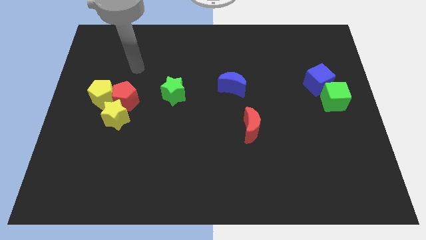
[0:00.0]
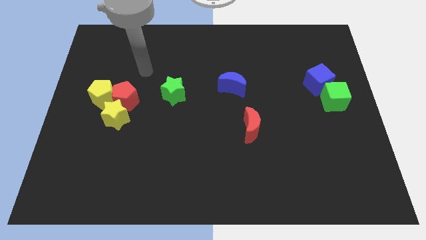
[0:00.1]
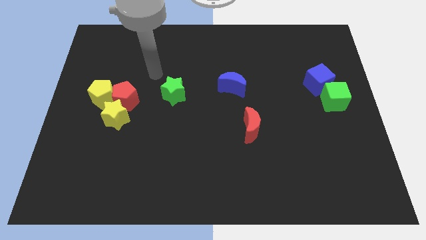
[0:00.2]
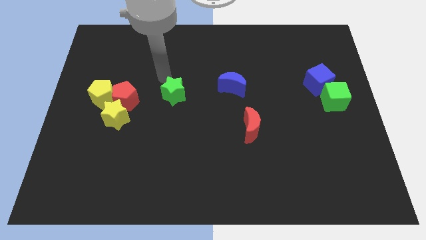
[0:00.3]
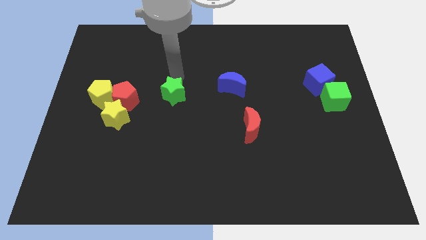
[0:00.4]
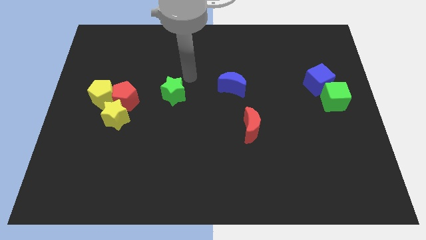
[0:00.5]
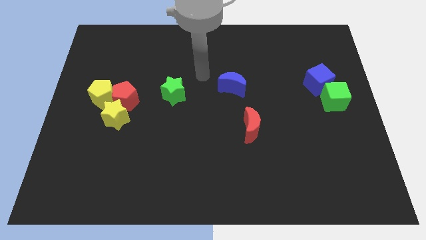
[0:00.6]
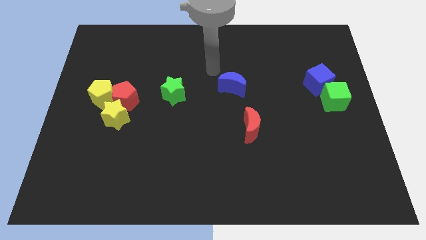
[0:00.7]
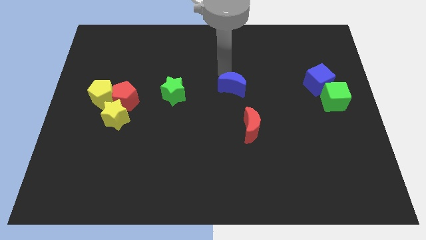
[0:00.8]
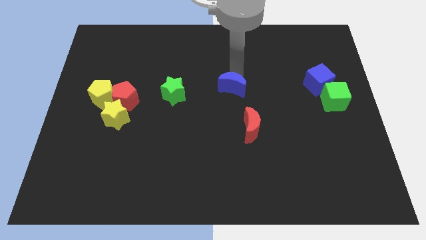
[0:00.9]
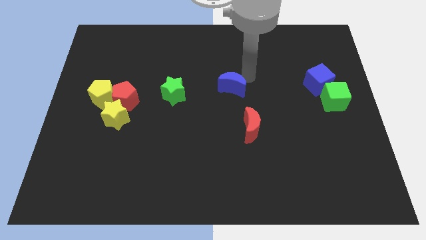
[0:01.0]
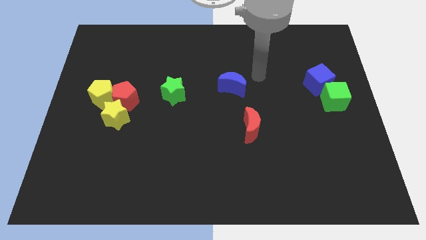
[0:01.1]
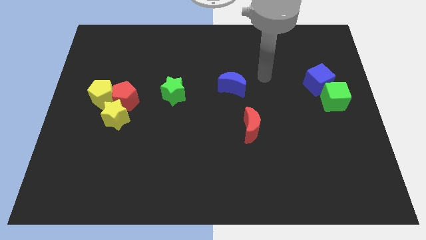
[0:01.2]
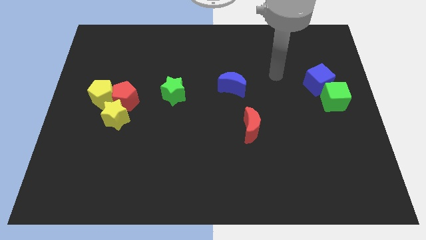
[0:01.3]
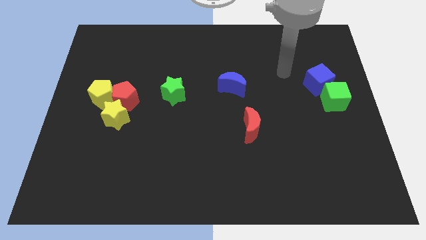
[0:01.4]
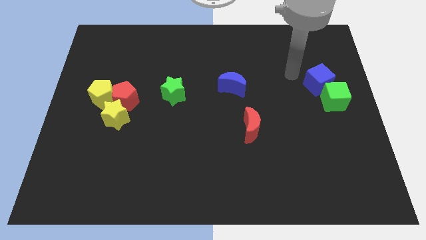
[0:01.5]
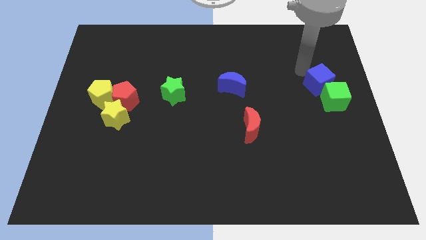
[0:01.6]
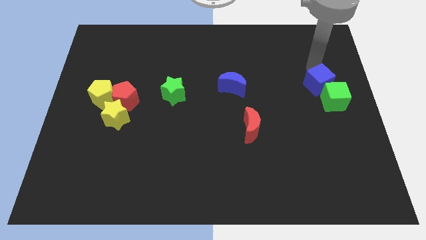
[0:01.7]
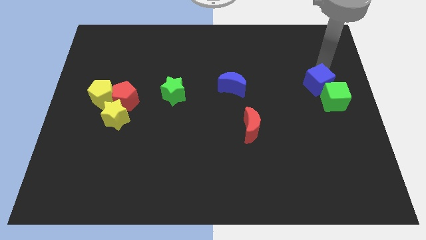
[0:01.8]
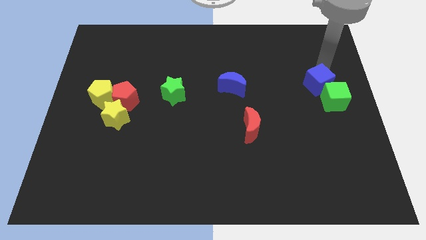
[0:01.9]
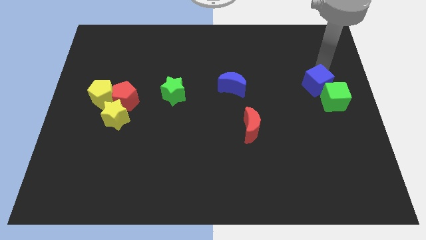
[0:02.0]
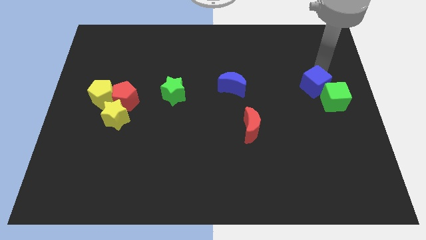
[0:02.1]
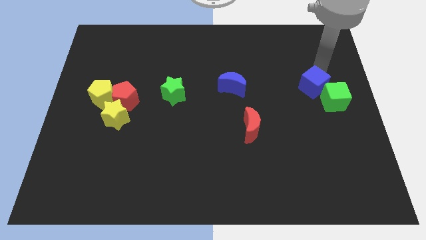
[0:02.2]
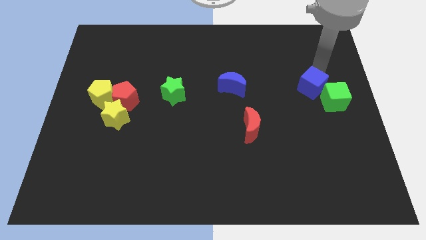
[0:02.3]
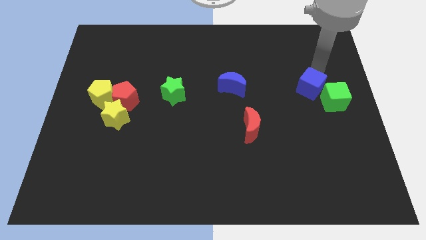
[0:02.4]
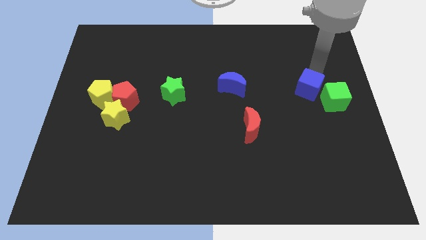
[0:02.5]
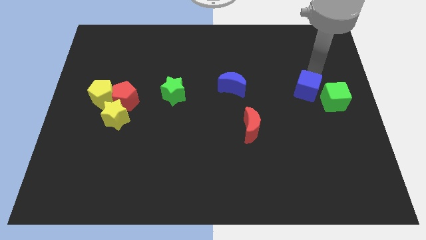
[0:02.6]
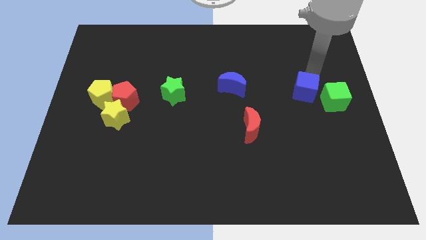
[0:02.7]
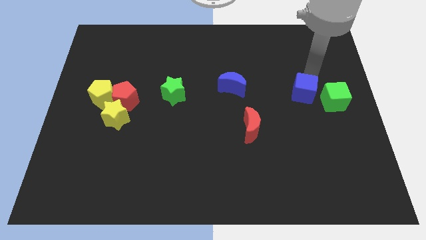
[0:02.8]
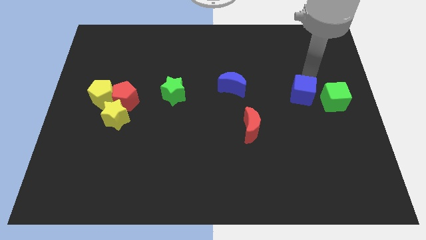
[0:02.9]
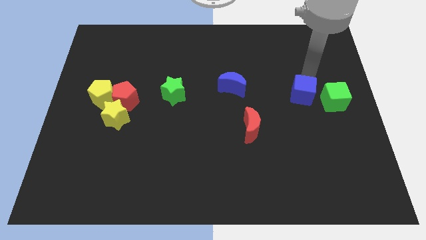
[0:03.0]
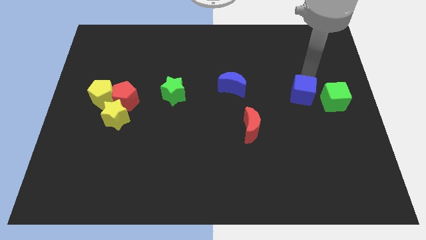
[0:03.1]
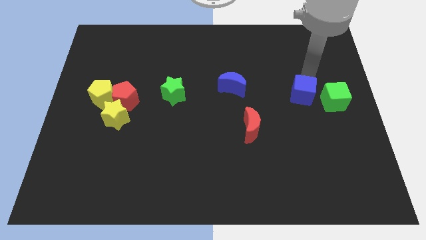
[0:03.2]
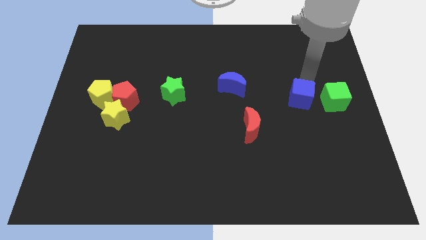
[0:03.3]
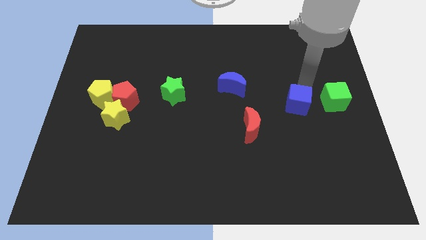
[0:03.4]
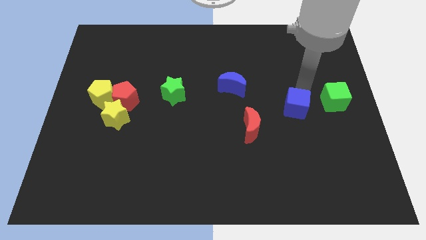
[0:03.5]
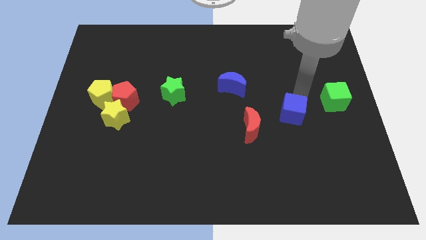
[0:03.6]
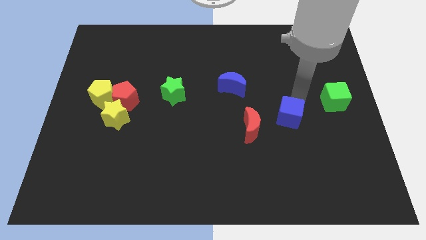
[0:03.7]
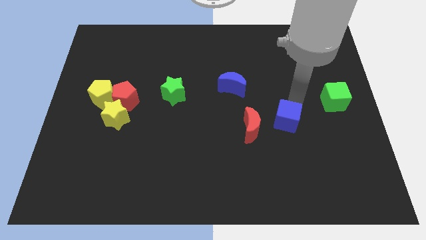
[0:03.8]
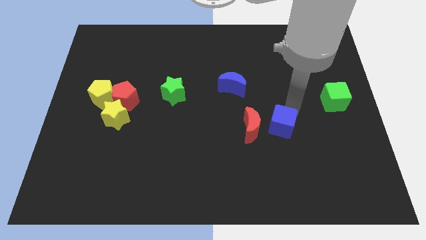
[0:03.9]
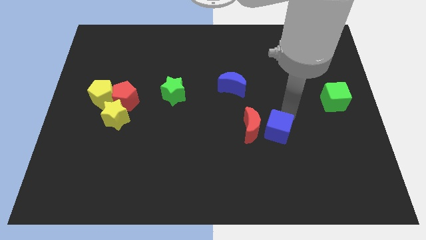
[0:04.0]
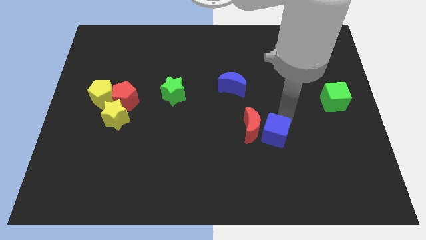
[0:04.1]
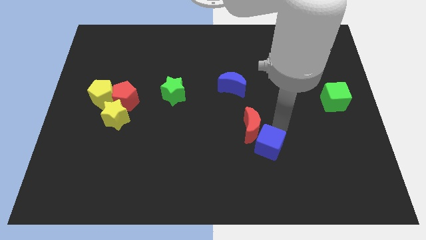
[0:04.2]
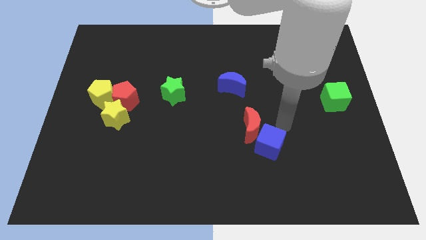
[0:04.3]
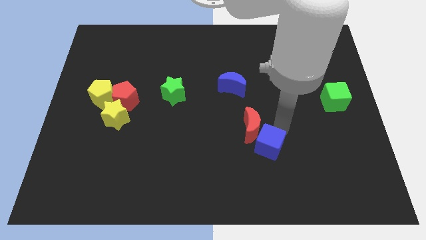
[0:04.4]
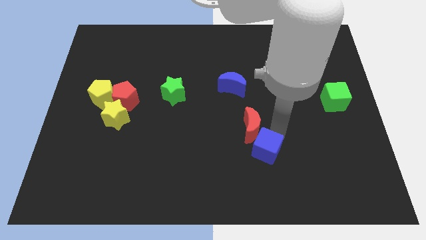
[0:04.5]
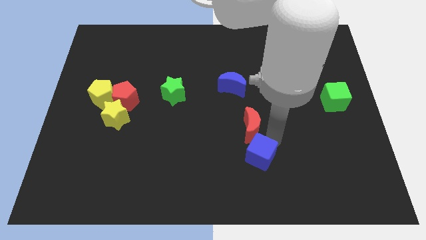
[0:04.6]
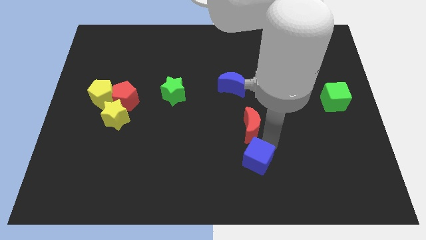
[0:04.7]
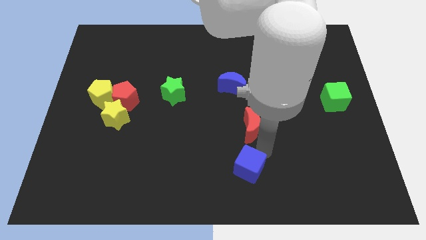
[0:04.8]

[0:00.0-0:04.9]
put the blue cube to the bottom side

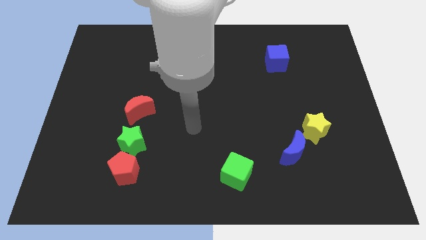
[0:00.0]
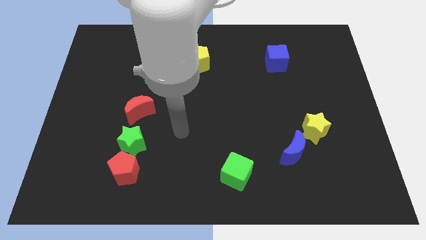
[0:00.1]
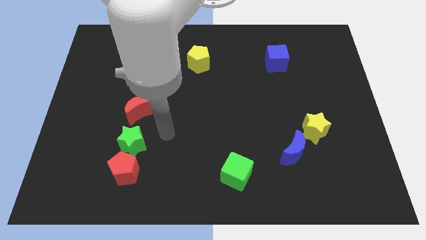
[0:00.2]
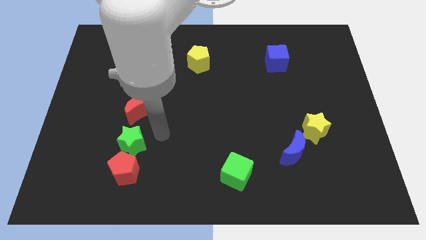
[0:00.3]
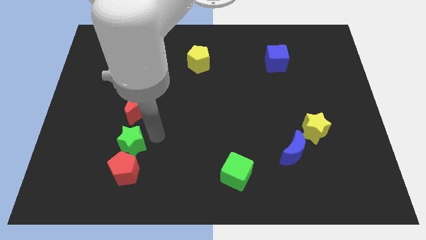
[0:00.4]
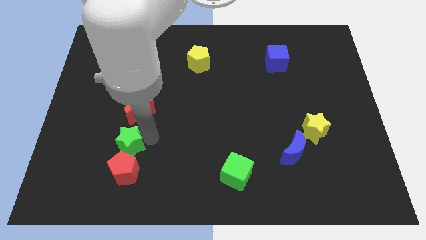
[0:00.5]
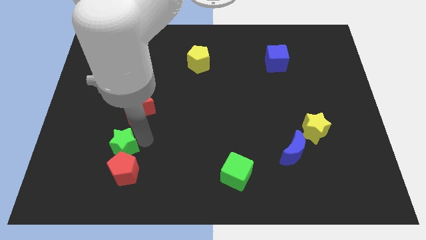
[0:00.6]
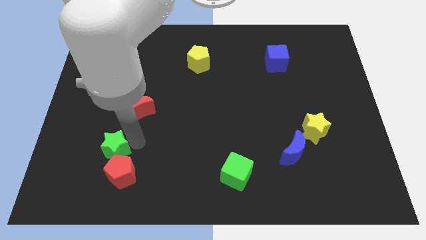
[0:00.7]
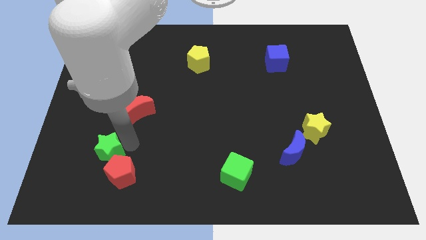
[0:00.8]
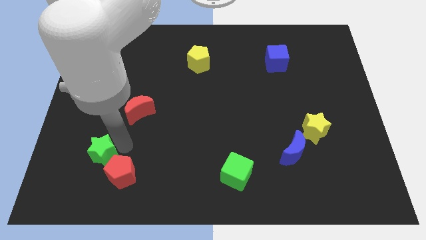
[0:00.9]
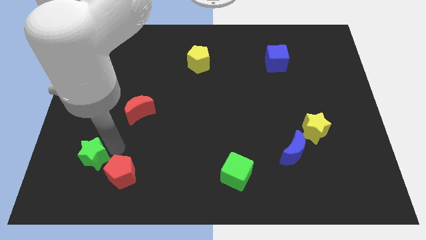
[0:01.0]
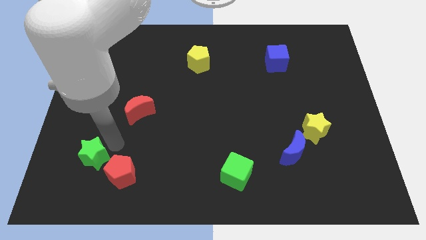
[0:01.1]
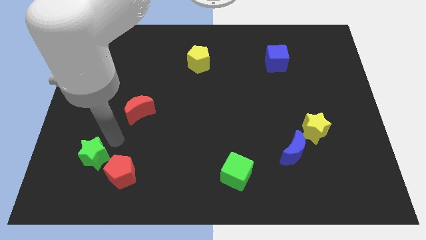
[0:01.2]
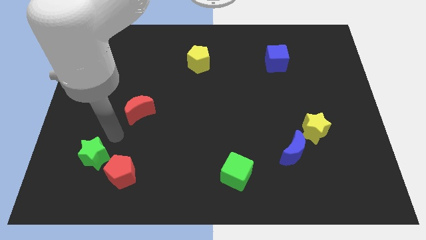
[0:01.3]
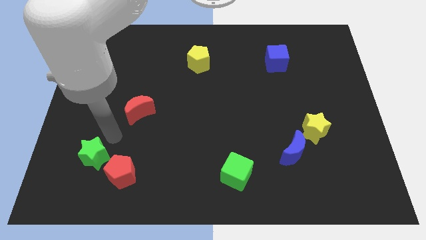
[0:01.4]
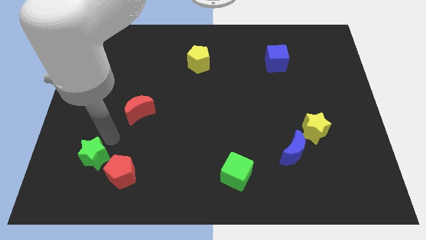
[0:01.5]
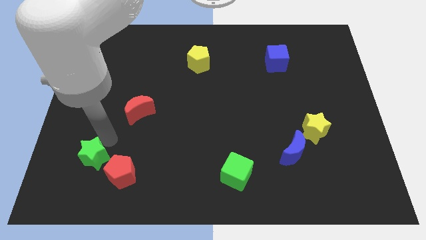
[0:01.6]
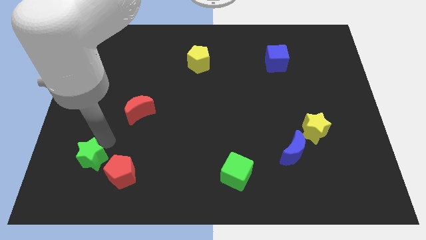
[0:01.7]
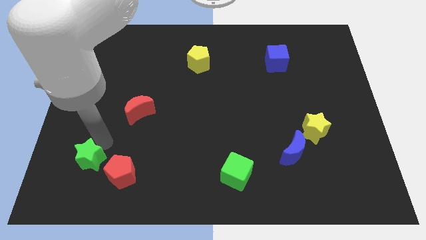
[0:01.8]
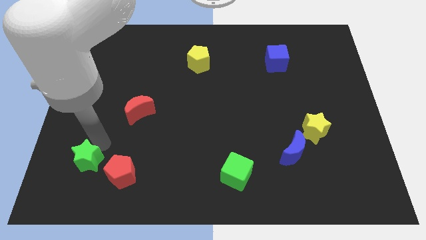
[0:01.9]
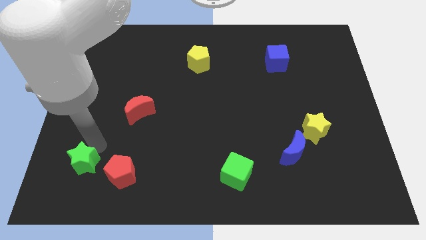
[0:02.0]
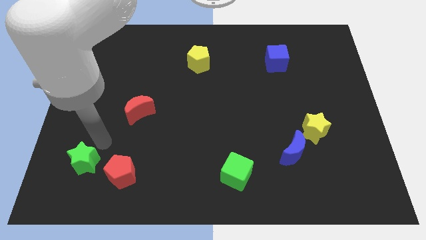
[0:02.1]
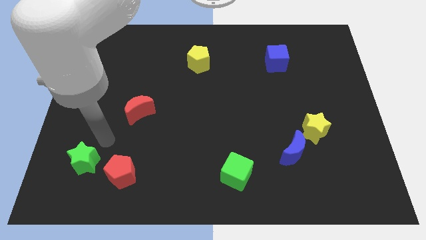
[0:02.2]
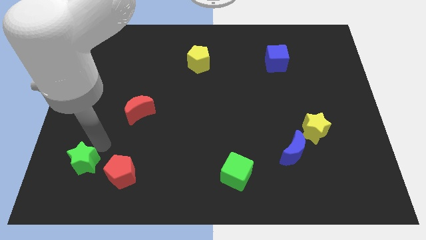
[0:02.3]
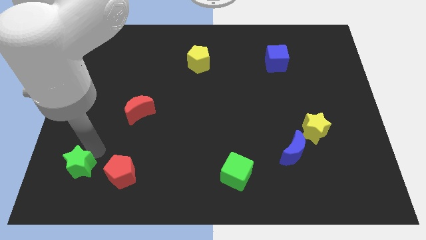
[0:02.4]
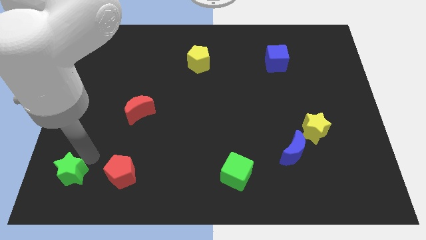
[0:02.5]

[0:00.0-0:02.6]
push the green star to the bottom left of the board
